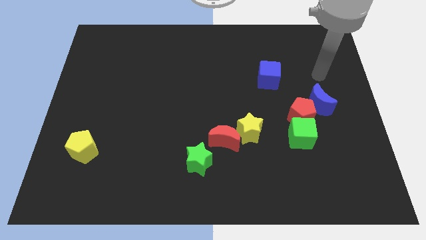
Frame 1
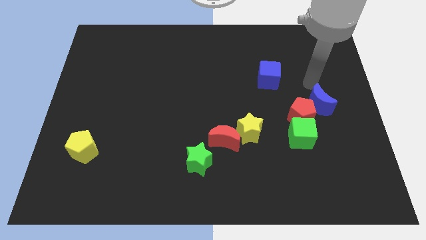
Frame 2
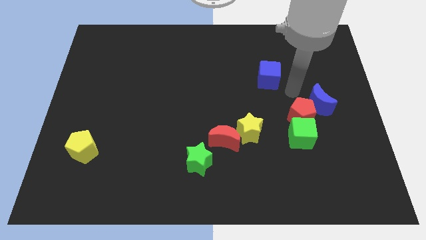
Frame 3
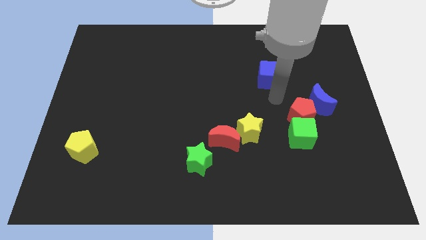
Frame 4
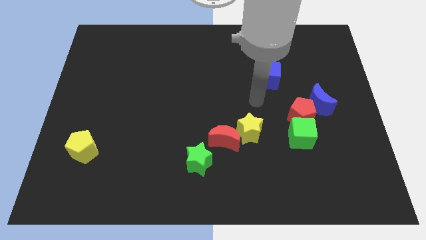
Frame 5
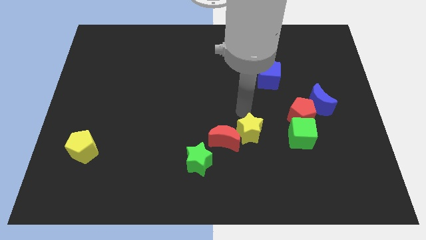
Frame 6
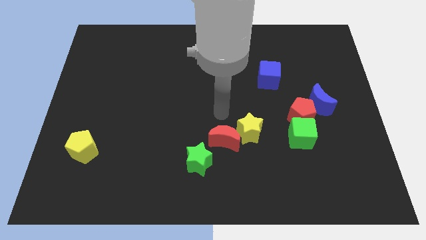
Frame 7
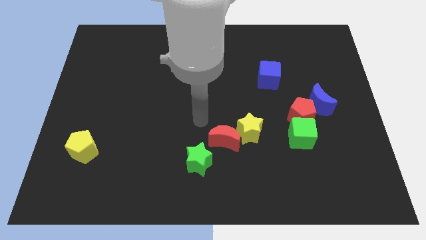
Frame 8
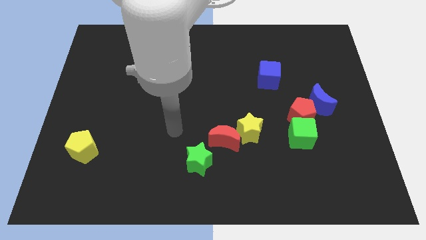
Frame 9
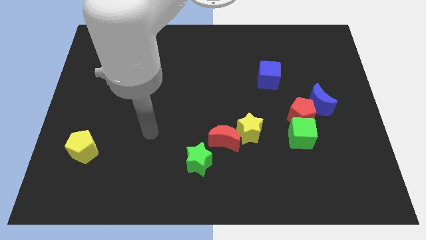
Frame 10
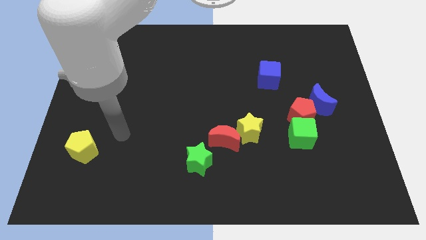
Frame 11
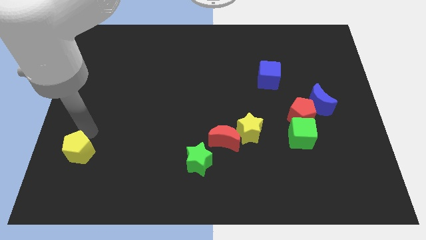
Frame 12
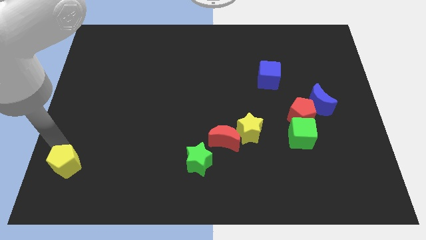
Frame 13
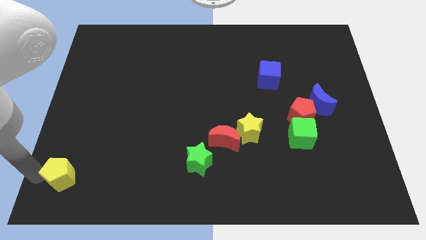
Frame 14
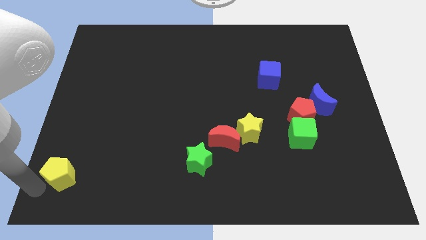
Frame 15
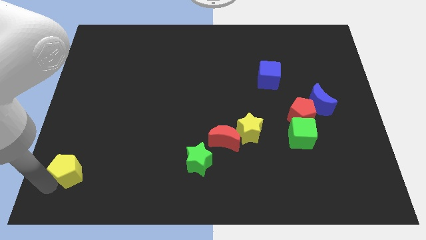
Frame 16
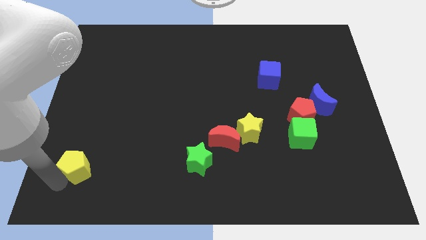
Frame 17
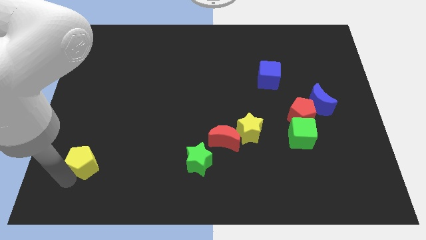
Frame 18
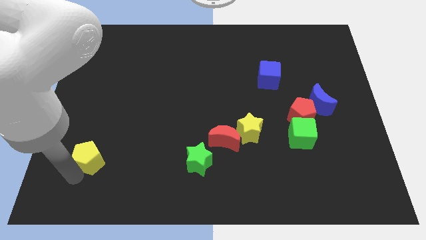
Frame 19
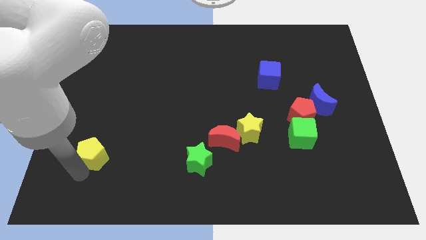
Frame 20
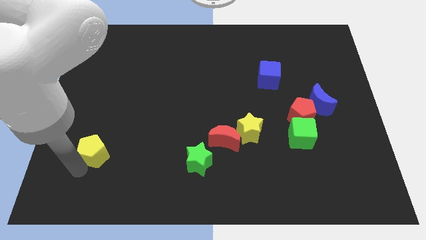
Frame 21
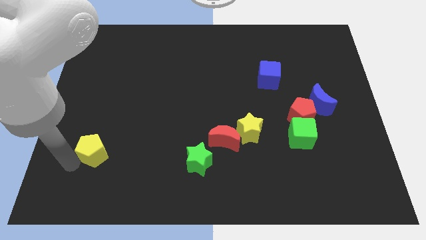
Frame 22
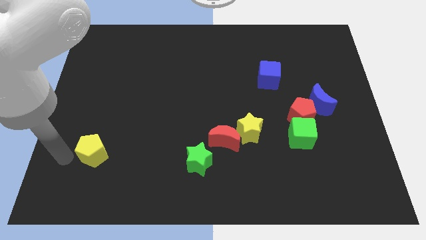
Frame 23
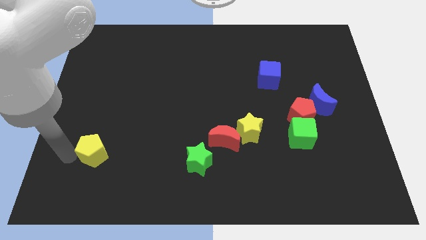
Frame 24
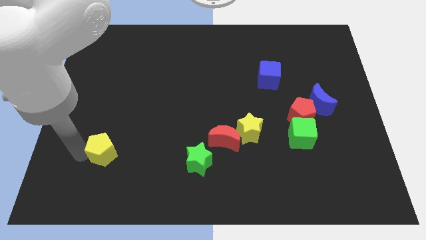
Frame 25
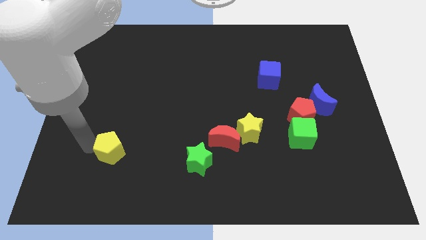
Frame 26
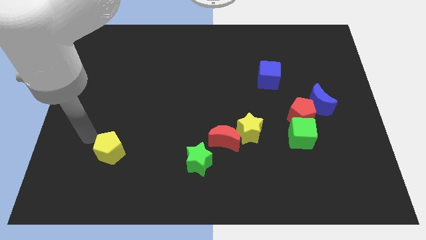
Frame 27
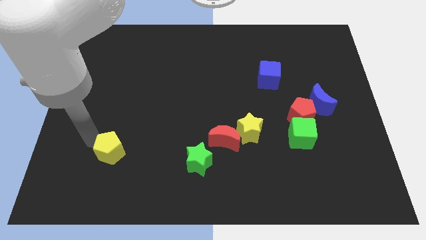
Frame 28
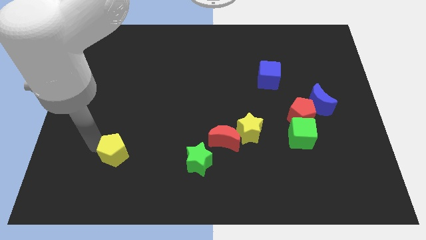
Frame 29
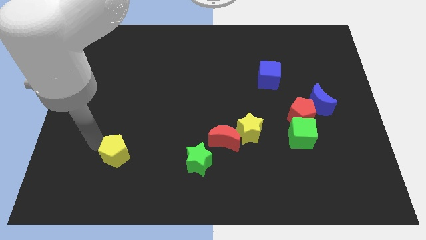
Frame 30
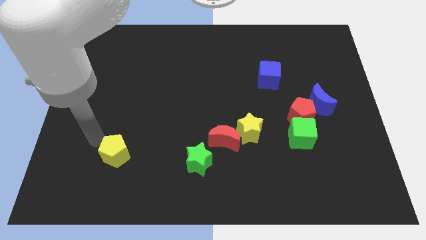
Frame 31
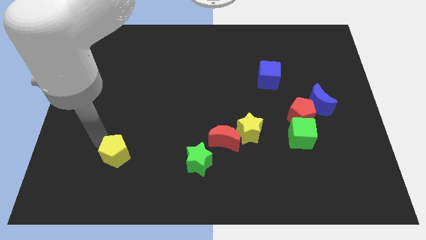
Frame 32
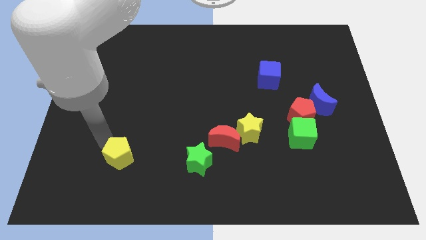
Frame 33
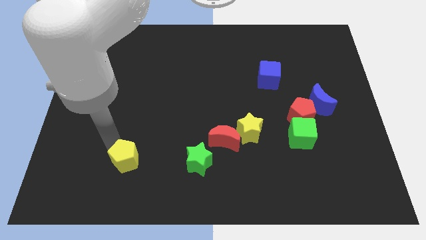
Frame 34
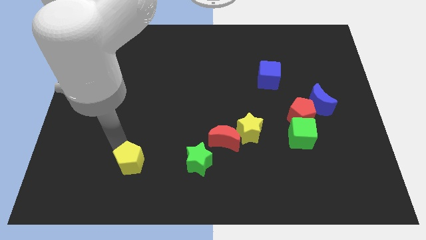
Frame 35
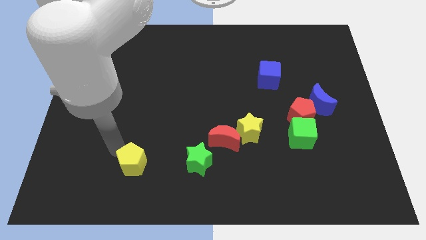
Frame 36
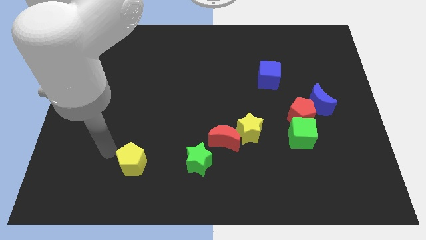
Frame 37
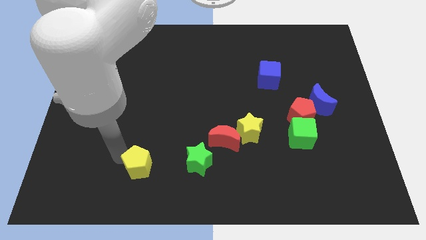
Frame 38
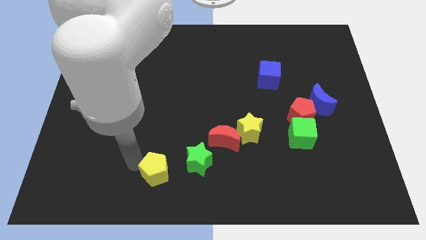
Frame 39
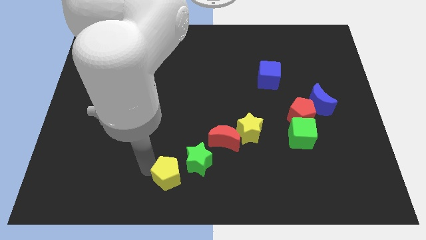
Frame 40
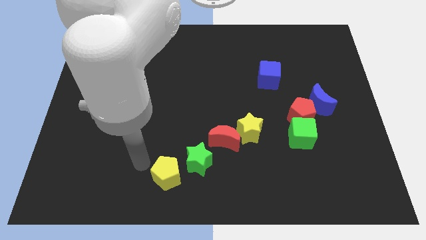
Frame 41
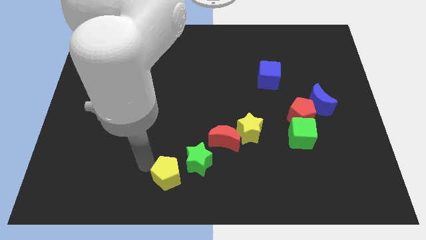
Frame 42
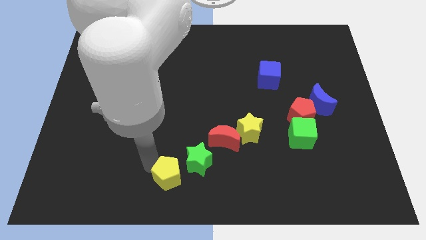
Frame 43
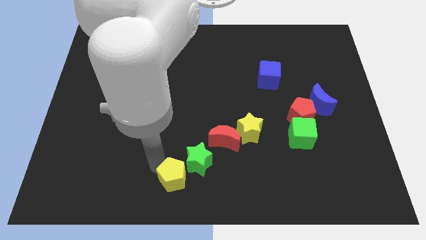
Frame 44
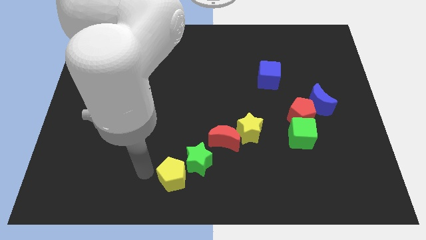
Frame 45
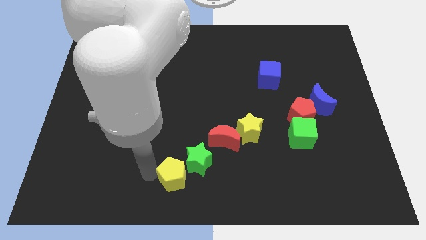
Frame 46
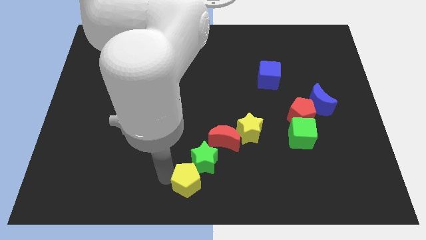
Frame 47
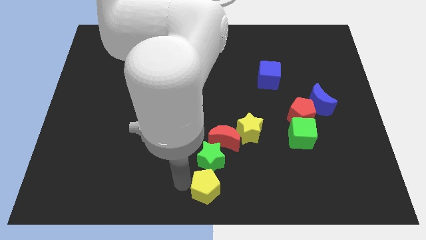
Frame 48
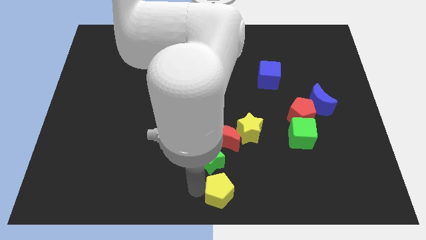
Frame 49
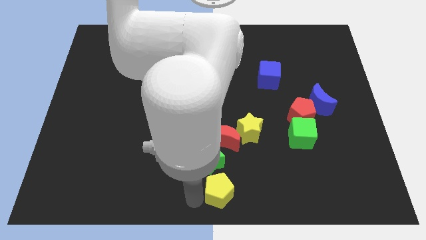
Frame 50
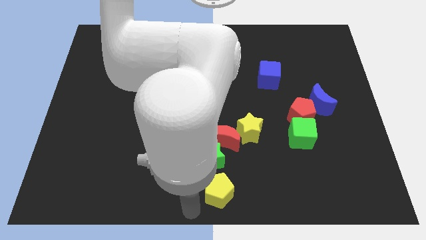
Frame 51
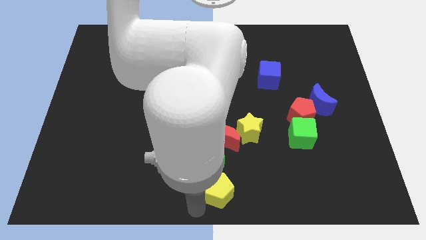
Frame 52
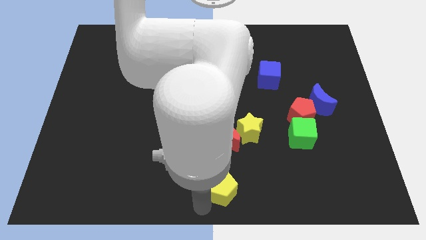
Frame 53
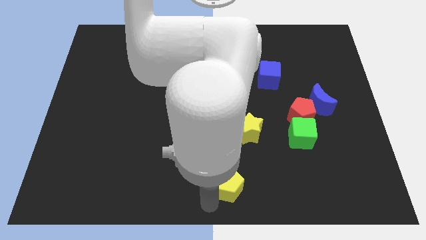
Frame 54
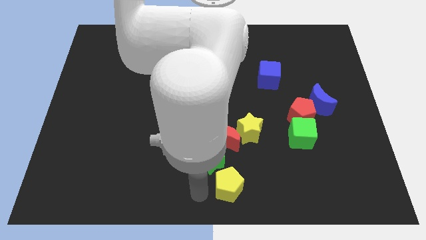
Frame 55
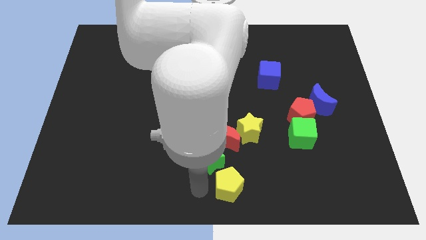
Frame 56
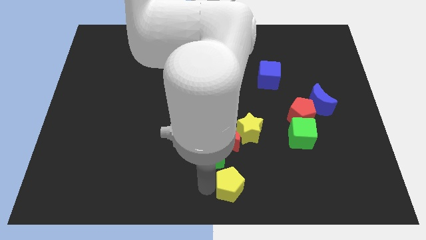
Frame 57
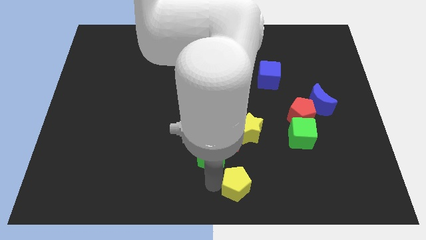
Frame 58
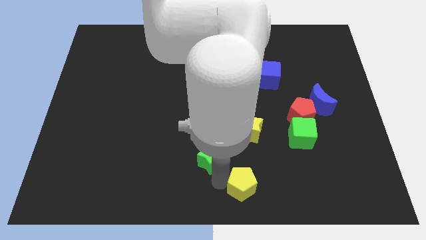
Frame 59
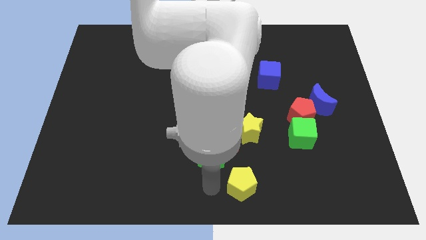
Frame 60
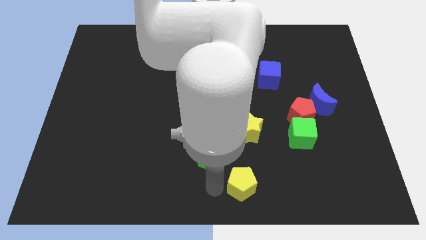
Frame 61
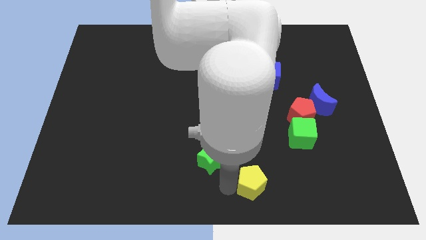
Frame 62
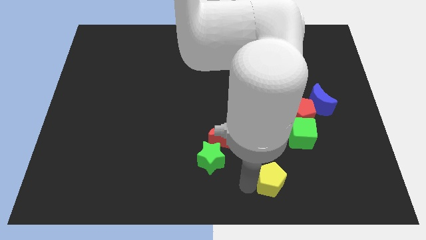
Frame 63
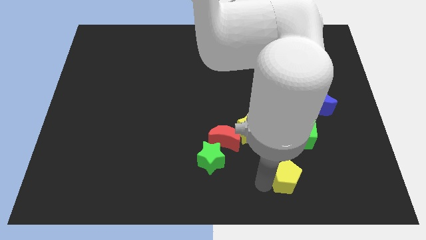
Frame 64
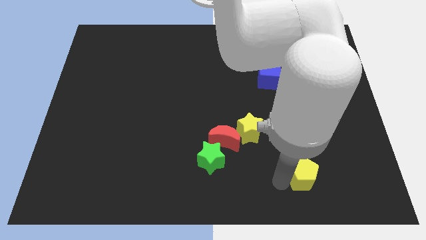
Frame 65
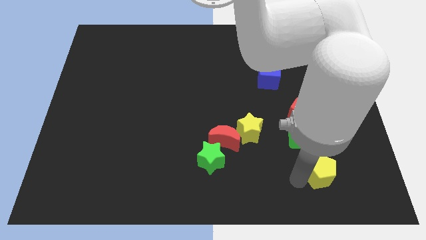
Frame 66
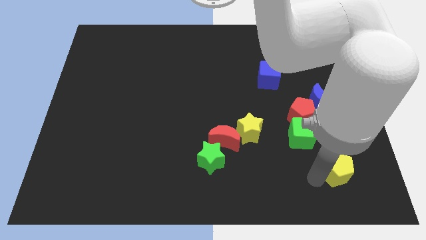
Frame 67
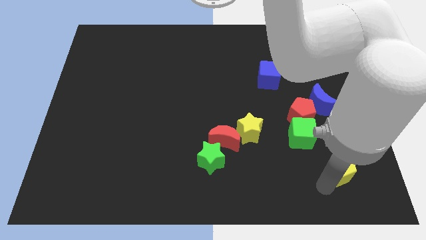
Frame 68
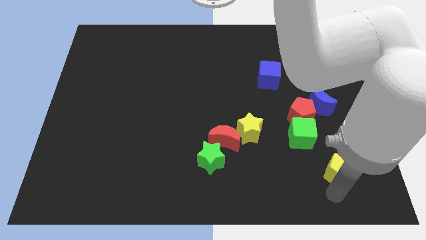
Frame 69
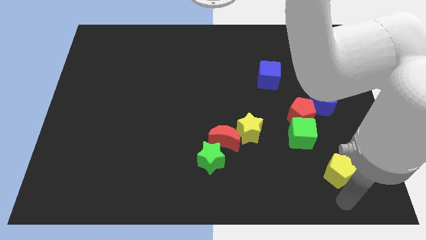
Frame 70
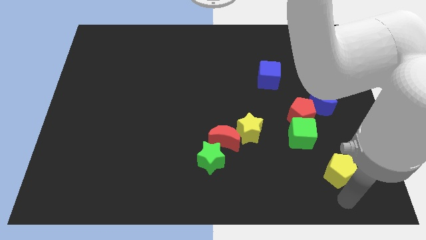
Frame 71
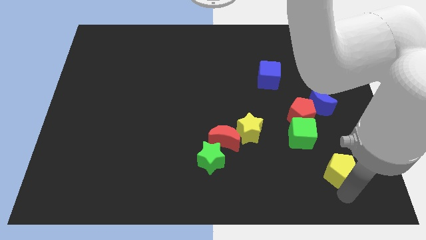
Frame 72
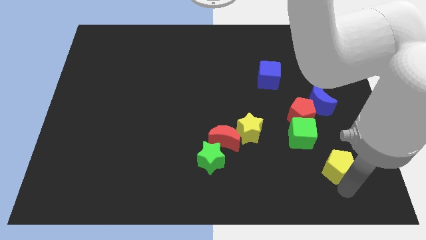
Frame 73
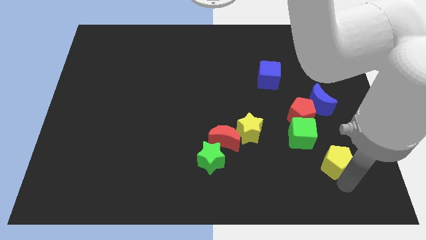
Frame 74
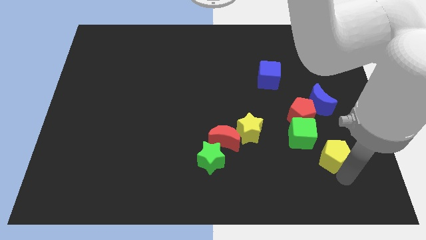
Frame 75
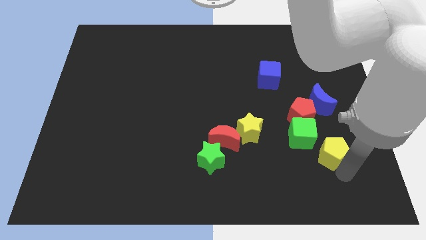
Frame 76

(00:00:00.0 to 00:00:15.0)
push the yellow pentagon diagonally down and to the right of the red pentagon
